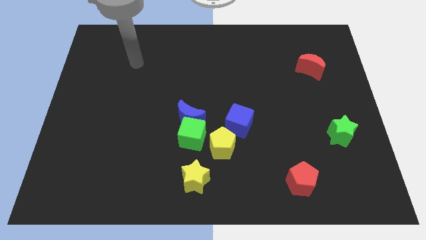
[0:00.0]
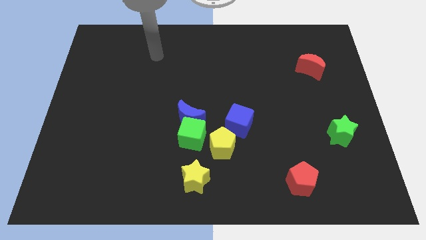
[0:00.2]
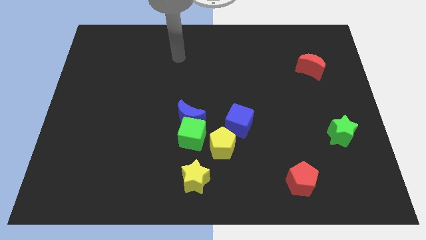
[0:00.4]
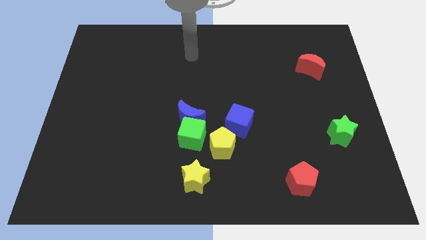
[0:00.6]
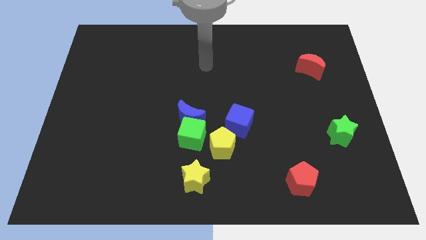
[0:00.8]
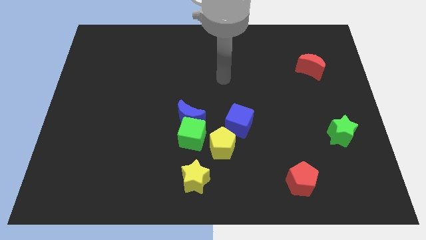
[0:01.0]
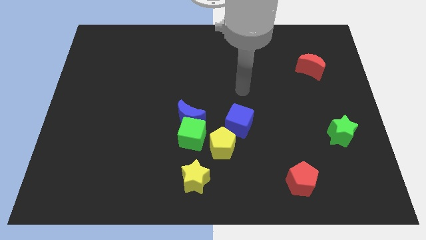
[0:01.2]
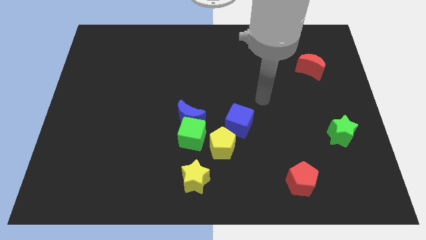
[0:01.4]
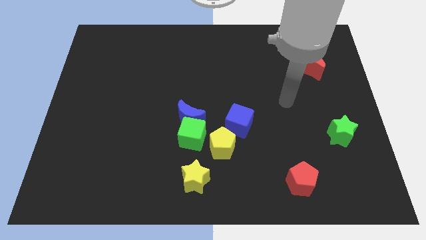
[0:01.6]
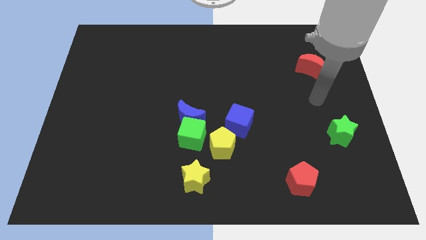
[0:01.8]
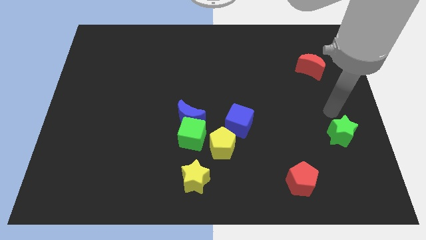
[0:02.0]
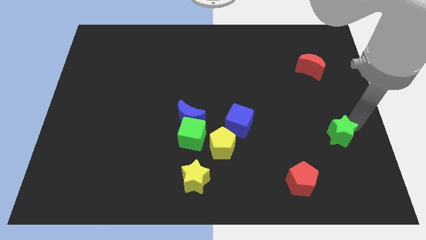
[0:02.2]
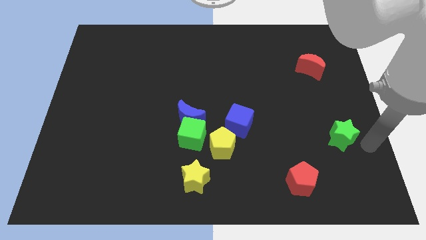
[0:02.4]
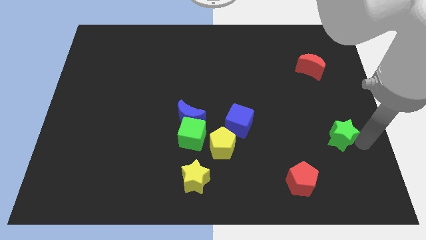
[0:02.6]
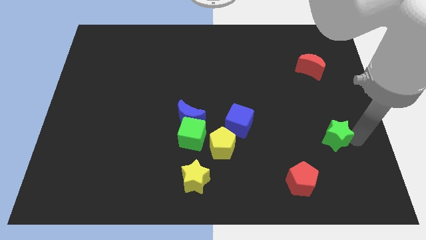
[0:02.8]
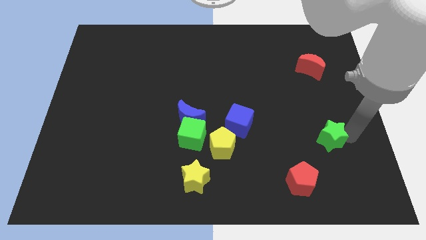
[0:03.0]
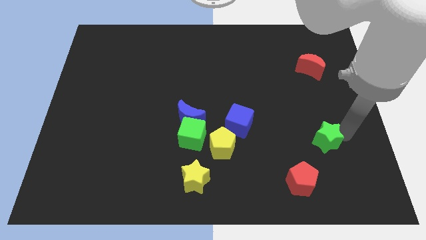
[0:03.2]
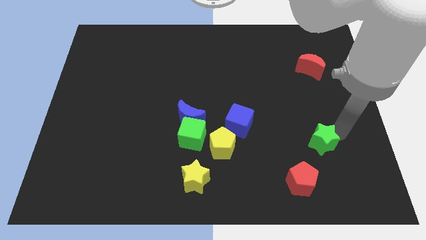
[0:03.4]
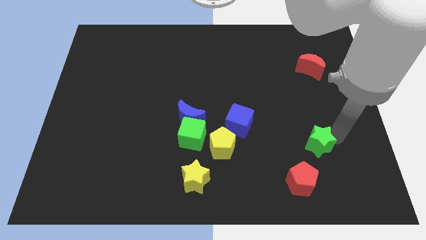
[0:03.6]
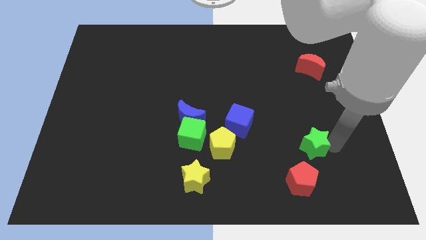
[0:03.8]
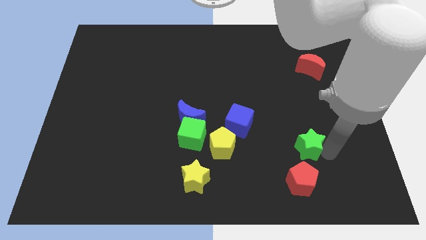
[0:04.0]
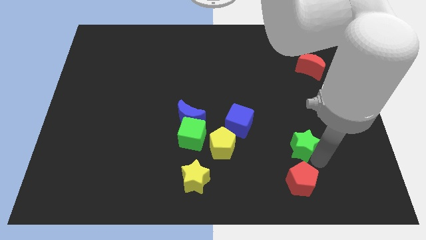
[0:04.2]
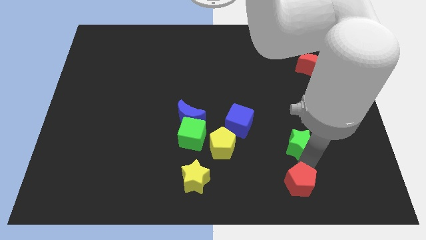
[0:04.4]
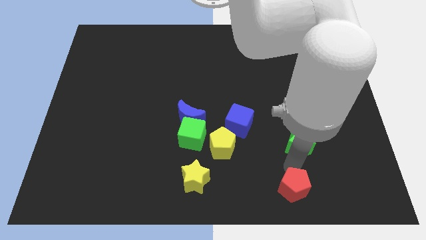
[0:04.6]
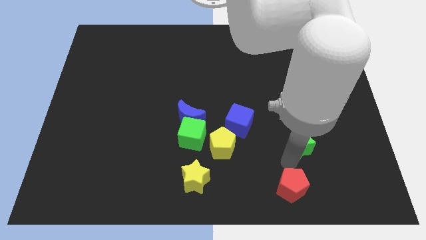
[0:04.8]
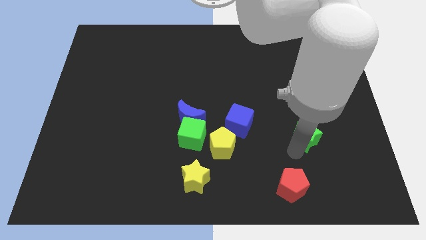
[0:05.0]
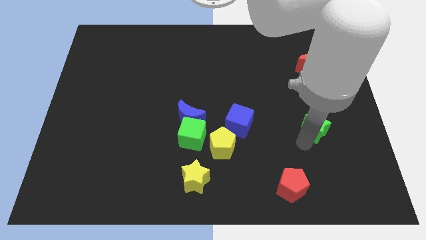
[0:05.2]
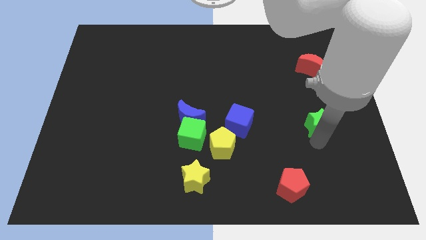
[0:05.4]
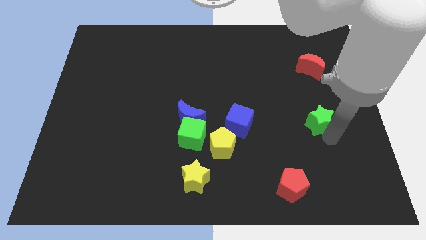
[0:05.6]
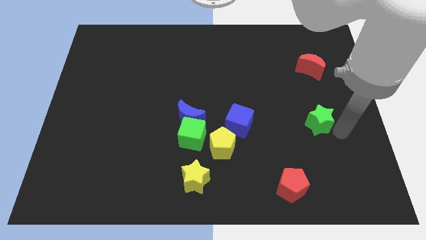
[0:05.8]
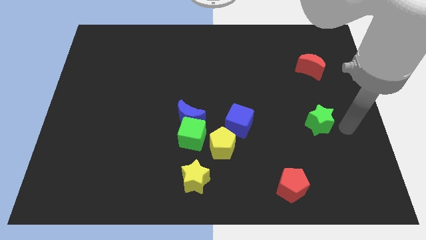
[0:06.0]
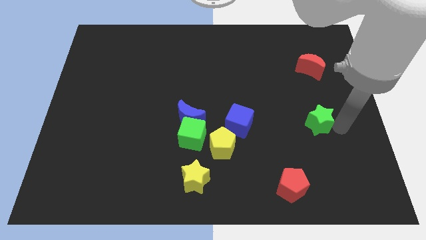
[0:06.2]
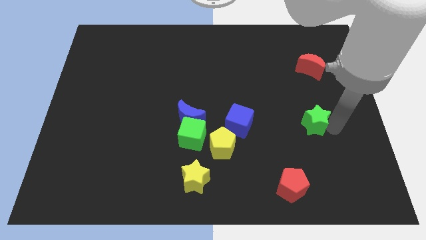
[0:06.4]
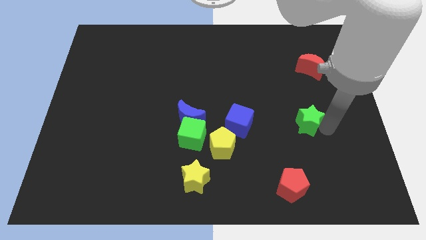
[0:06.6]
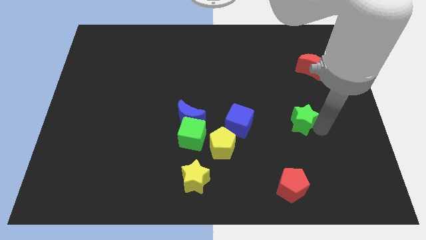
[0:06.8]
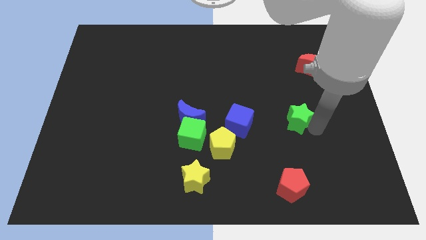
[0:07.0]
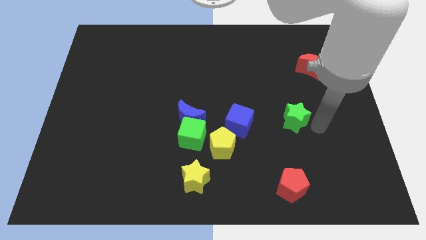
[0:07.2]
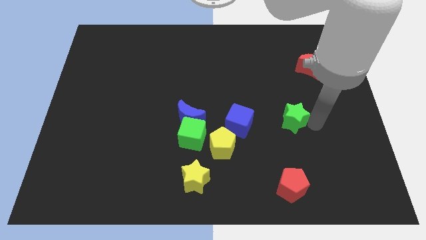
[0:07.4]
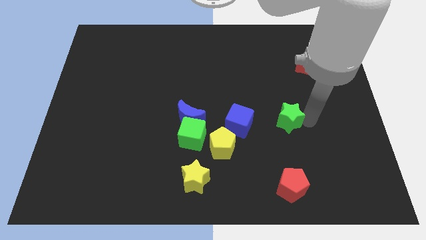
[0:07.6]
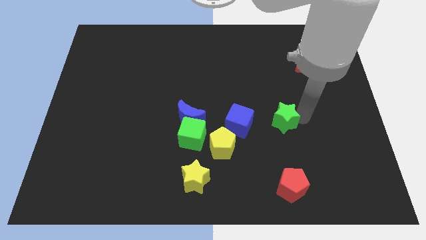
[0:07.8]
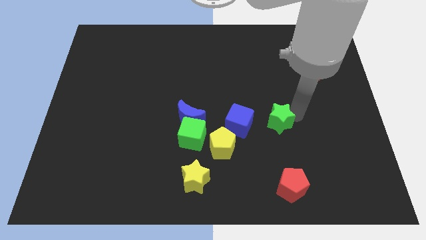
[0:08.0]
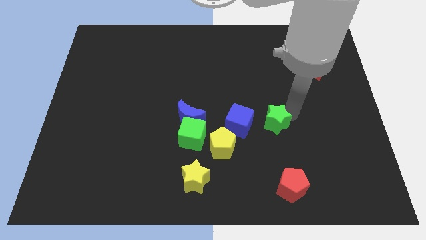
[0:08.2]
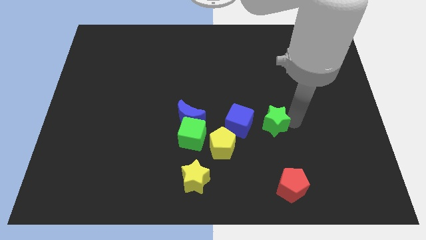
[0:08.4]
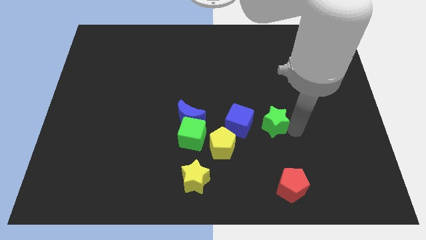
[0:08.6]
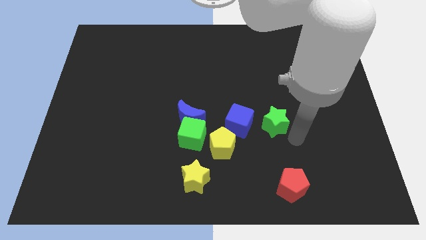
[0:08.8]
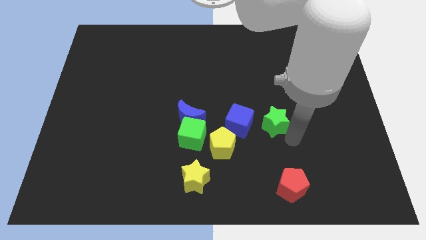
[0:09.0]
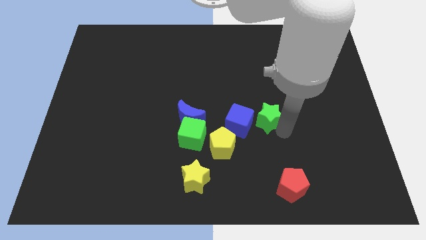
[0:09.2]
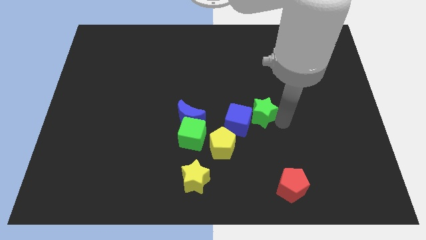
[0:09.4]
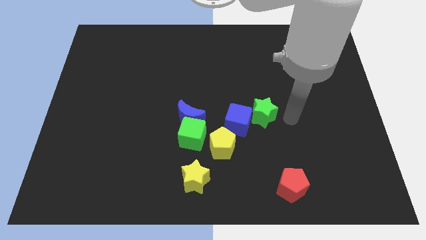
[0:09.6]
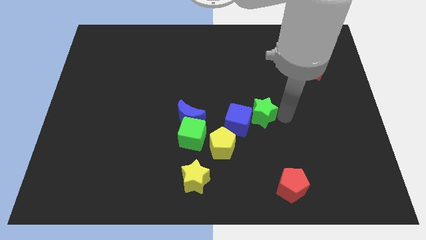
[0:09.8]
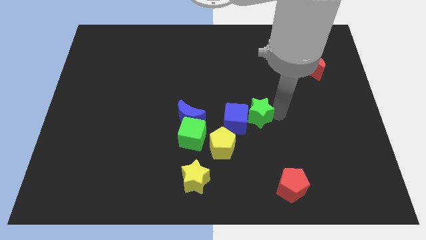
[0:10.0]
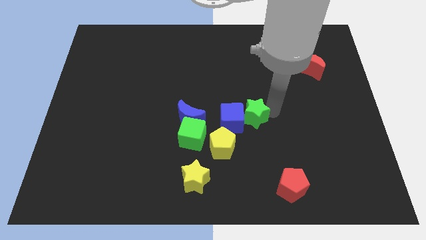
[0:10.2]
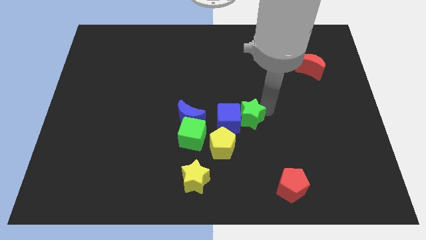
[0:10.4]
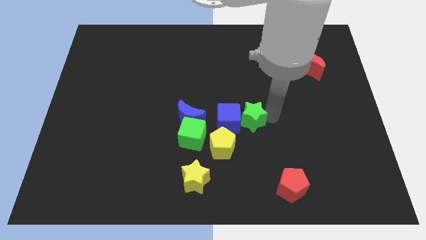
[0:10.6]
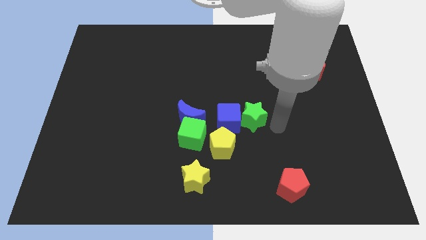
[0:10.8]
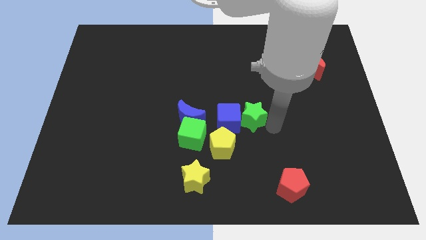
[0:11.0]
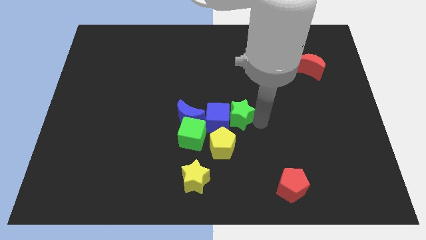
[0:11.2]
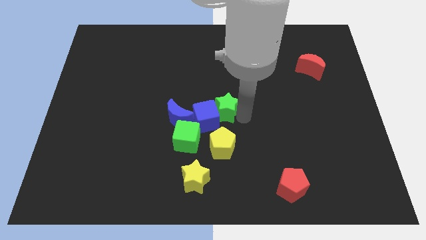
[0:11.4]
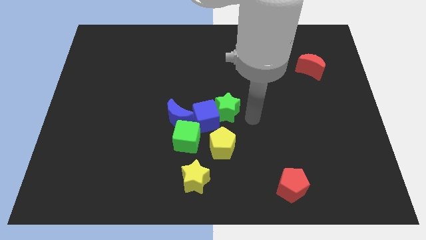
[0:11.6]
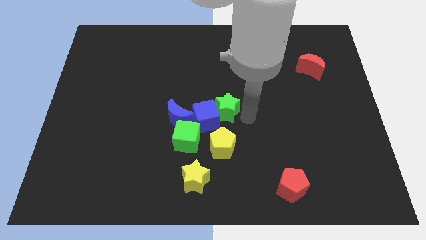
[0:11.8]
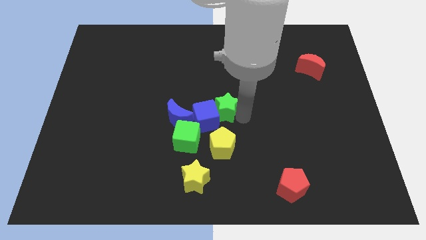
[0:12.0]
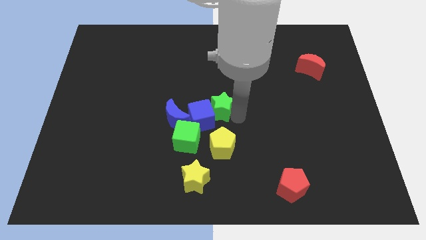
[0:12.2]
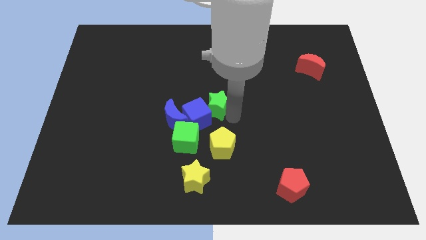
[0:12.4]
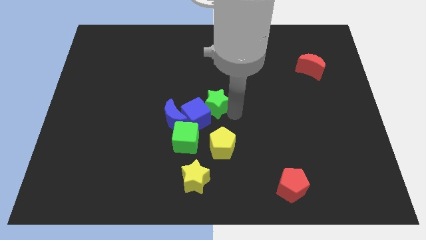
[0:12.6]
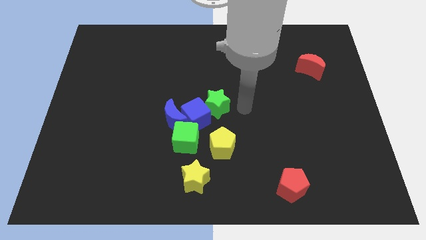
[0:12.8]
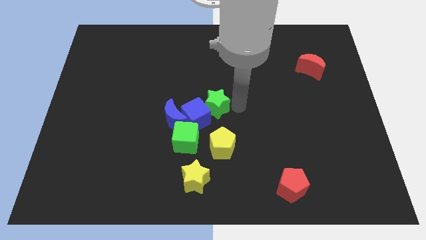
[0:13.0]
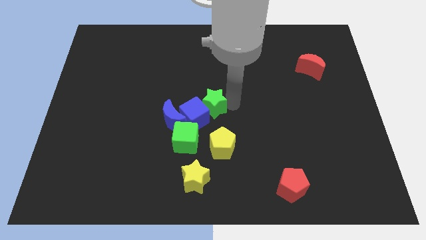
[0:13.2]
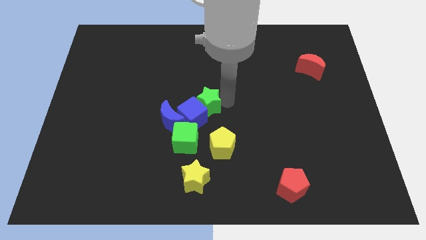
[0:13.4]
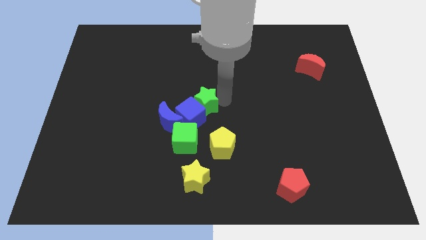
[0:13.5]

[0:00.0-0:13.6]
slide the green star above the green cube
